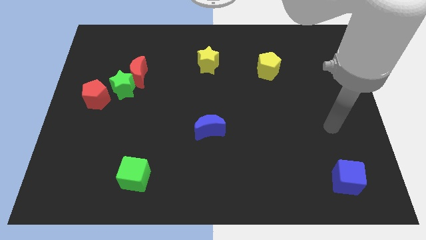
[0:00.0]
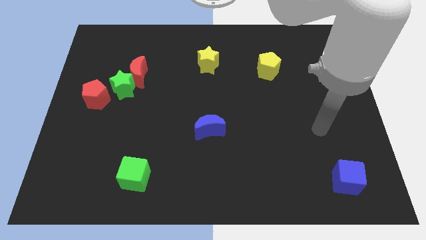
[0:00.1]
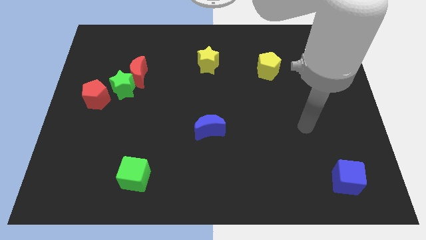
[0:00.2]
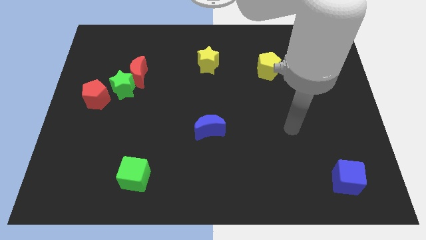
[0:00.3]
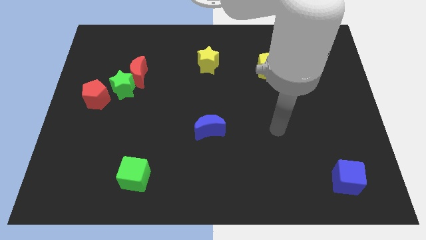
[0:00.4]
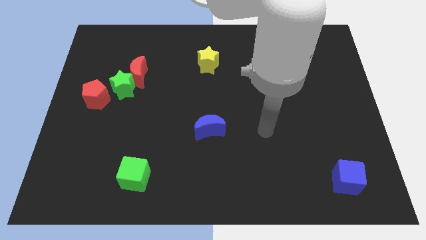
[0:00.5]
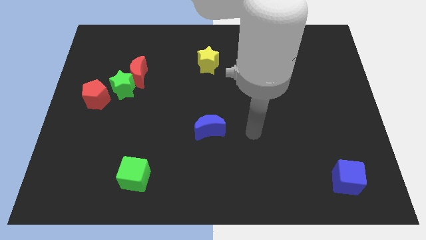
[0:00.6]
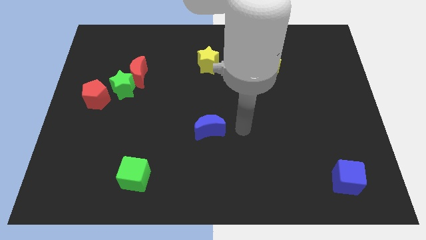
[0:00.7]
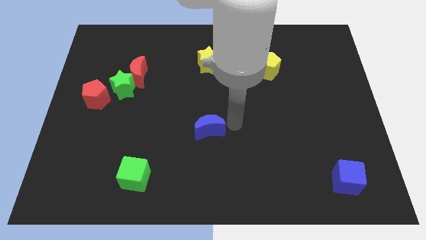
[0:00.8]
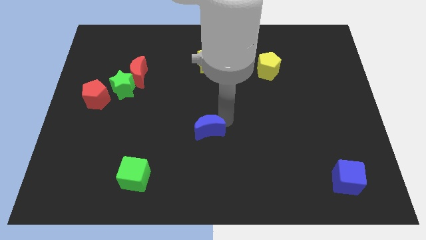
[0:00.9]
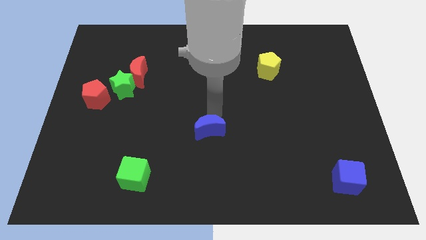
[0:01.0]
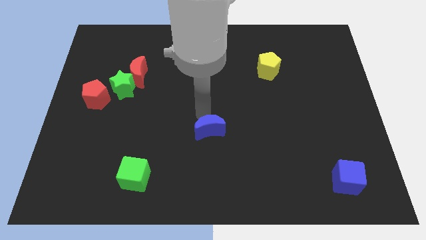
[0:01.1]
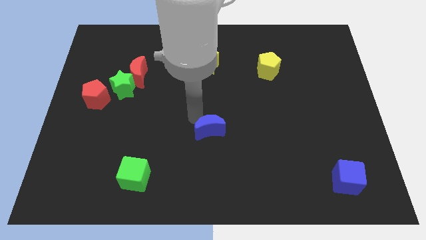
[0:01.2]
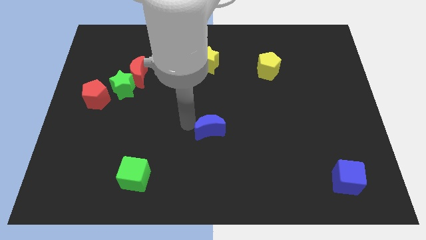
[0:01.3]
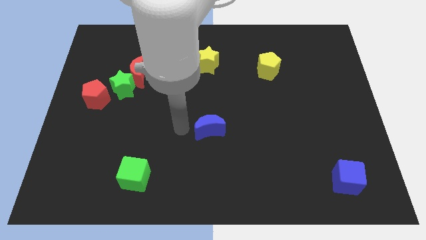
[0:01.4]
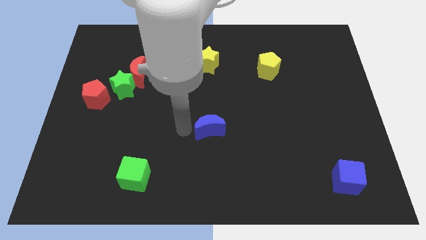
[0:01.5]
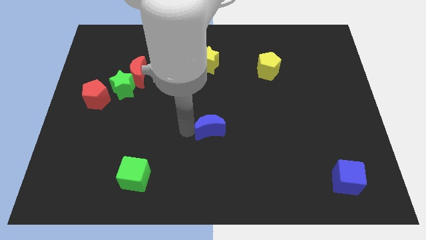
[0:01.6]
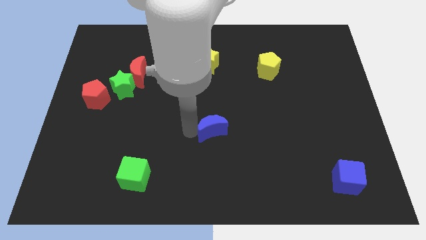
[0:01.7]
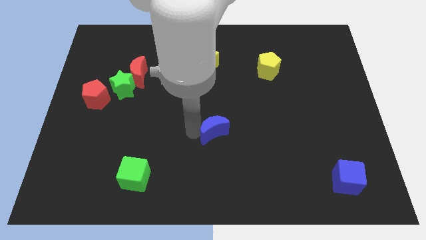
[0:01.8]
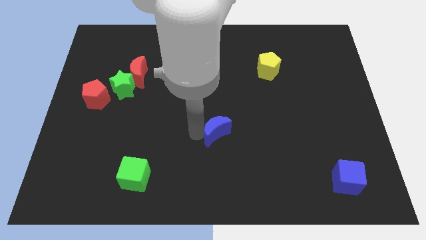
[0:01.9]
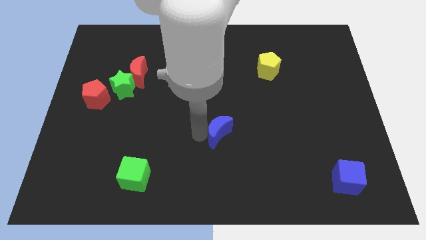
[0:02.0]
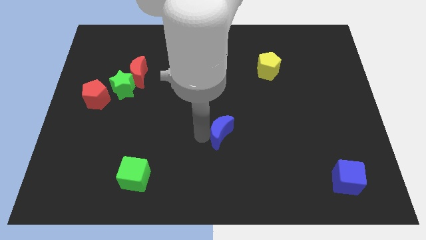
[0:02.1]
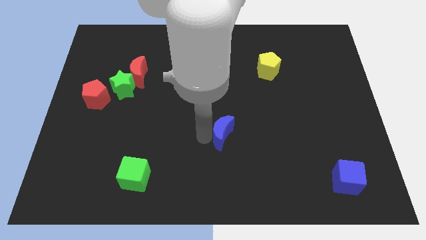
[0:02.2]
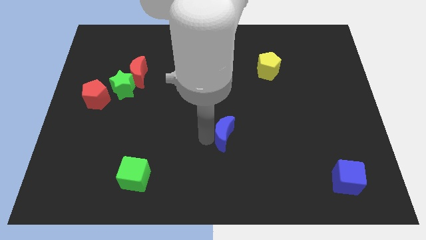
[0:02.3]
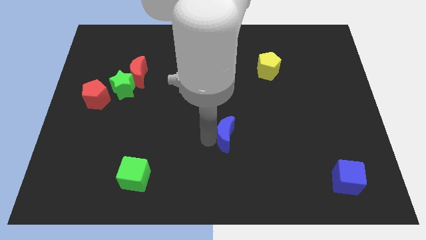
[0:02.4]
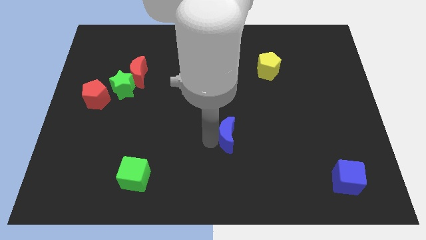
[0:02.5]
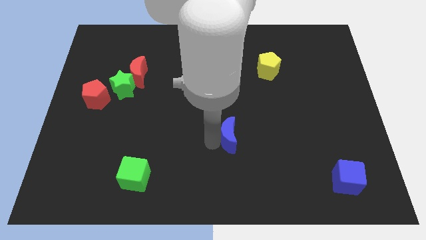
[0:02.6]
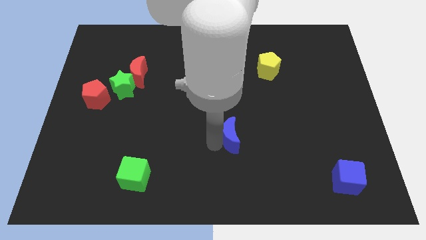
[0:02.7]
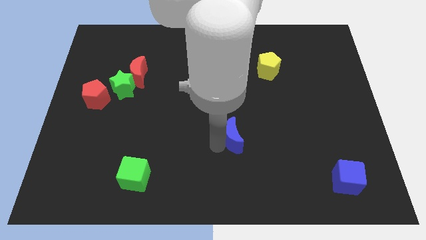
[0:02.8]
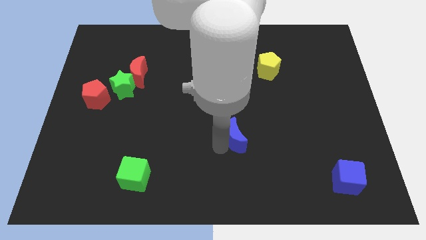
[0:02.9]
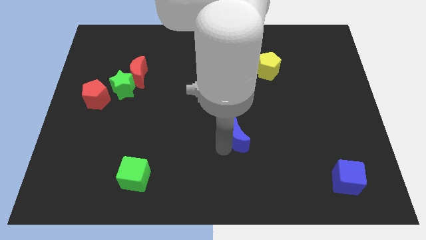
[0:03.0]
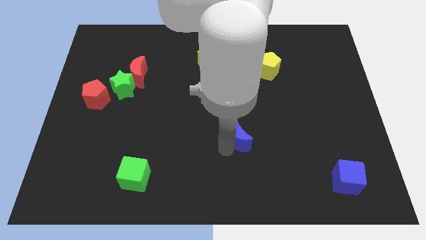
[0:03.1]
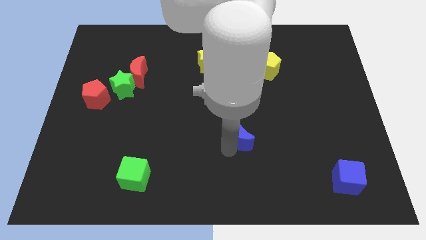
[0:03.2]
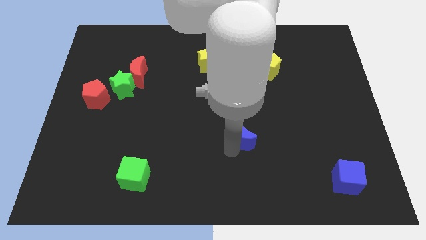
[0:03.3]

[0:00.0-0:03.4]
move the blue moon a little bit right

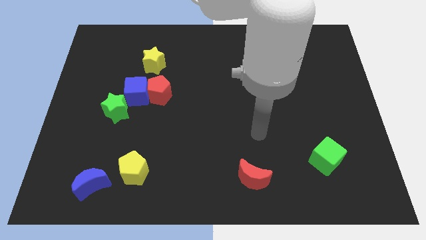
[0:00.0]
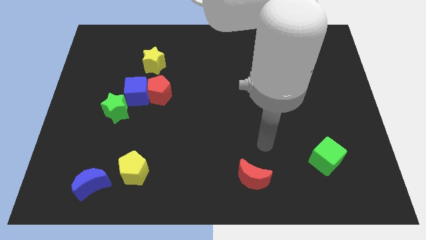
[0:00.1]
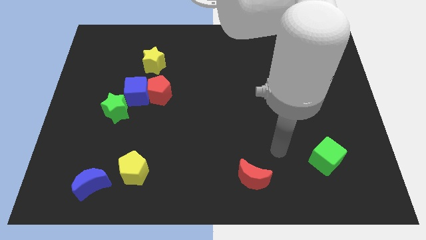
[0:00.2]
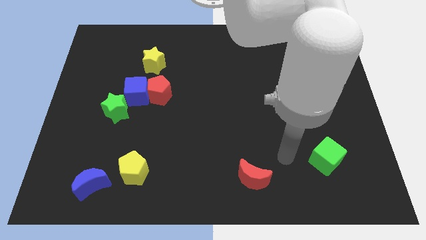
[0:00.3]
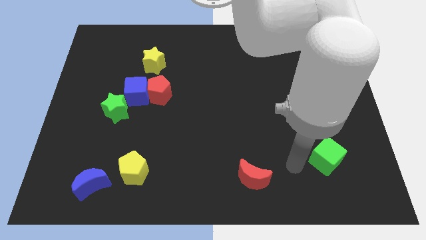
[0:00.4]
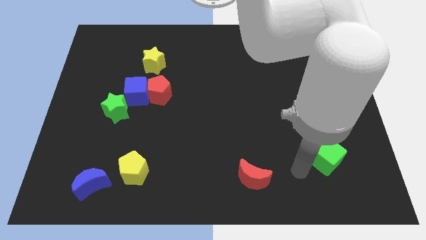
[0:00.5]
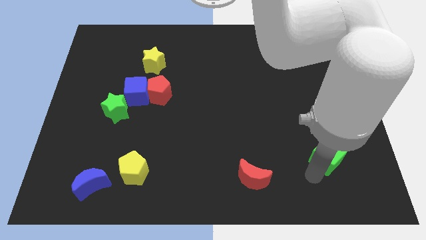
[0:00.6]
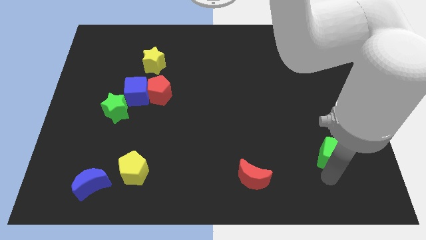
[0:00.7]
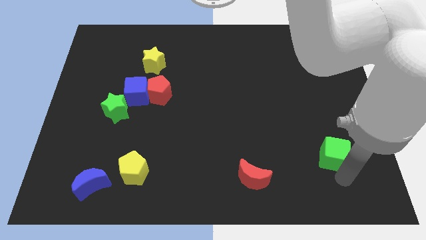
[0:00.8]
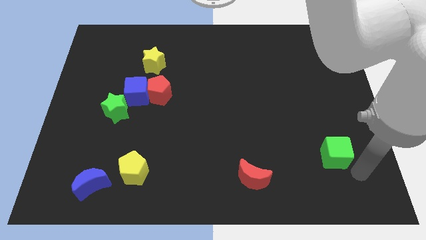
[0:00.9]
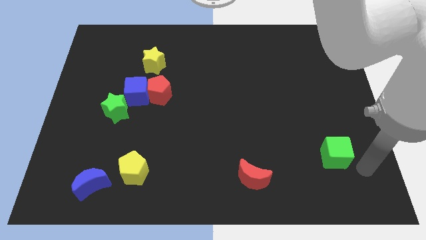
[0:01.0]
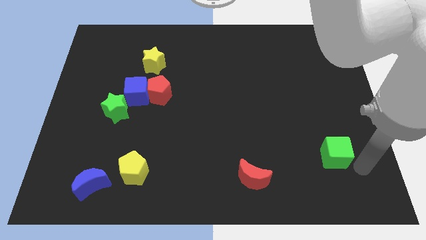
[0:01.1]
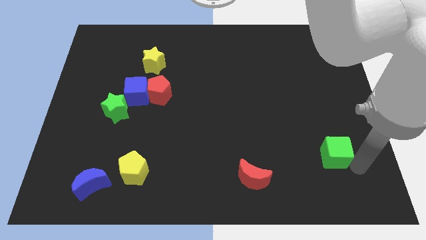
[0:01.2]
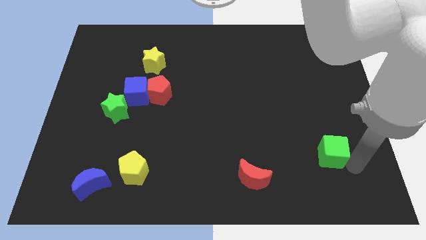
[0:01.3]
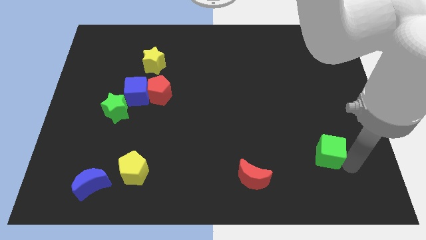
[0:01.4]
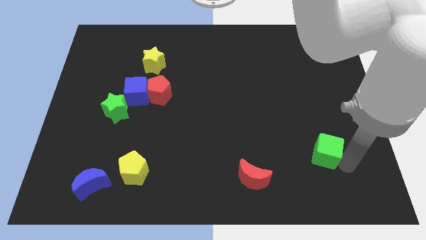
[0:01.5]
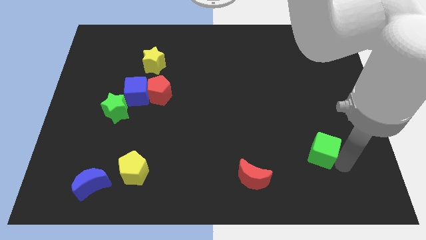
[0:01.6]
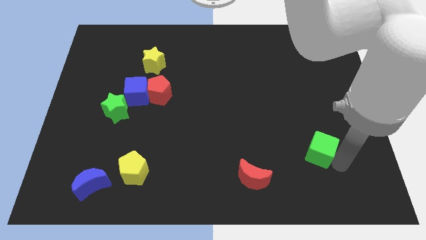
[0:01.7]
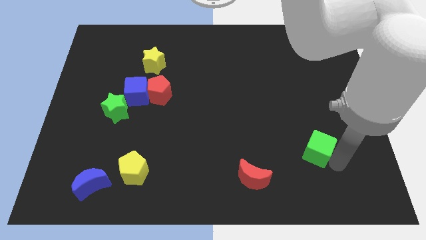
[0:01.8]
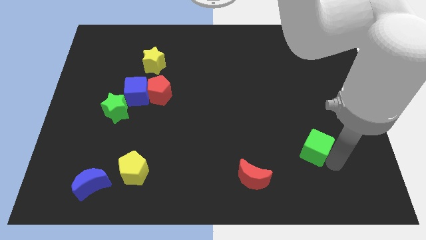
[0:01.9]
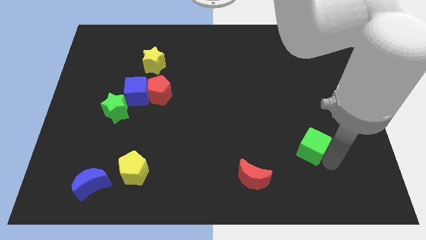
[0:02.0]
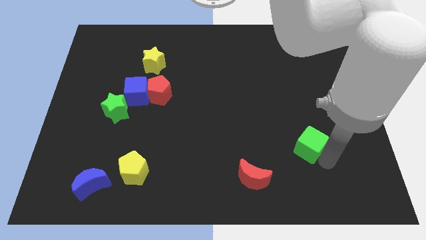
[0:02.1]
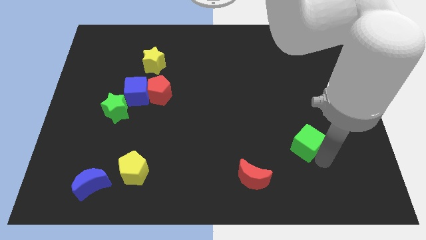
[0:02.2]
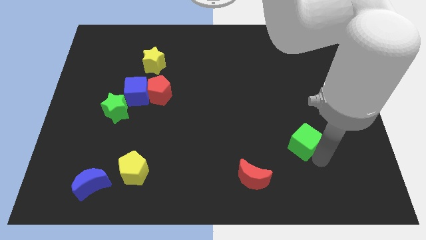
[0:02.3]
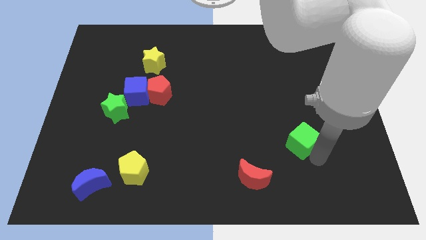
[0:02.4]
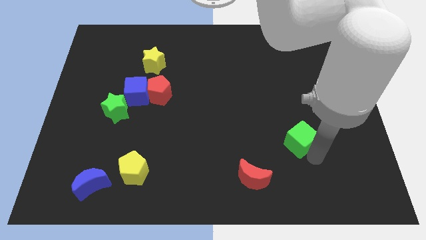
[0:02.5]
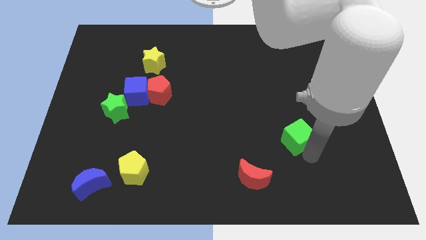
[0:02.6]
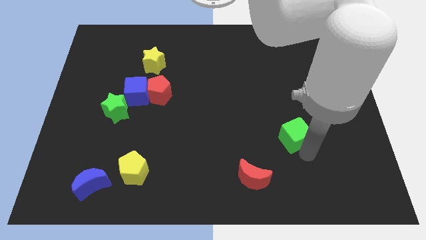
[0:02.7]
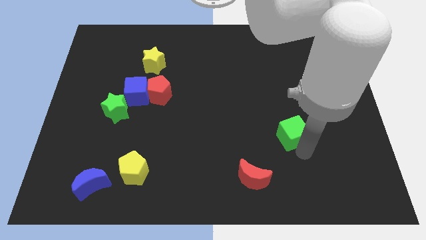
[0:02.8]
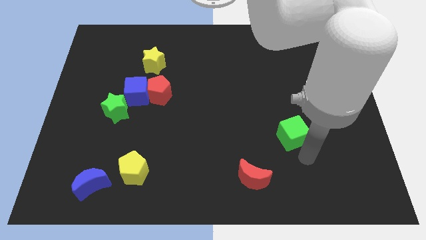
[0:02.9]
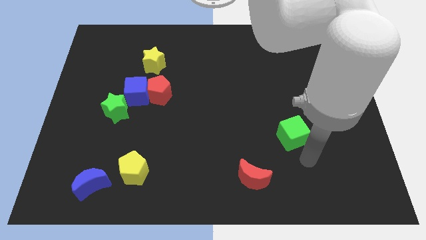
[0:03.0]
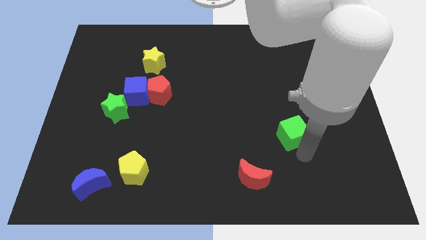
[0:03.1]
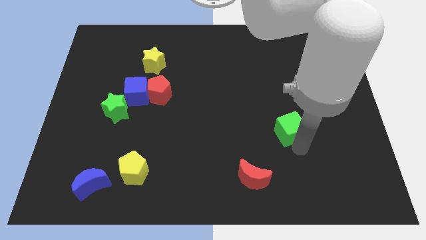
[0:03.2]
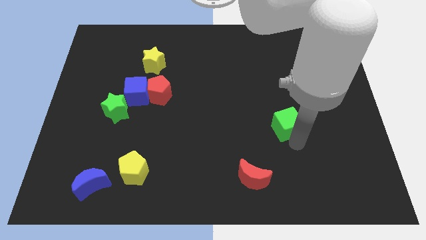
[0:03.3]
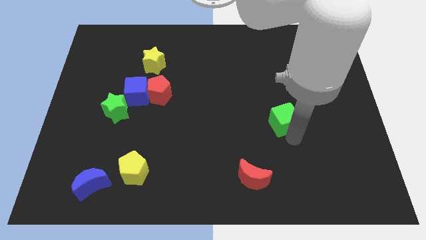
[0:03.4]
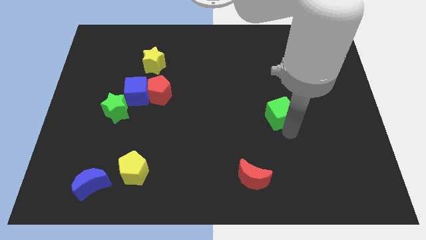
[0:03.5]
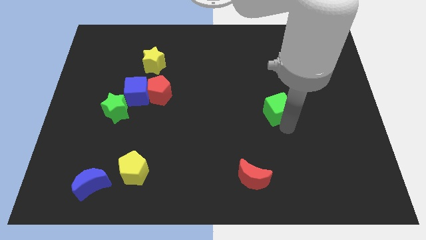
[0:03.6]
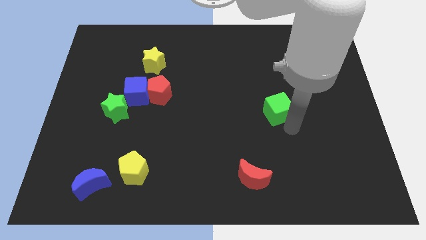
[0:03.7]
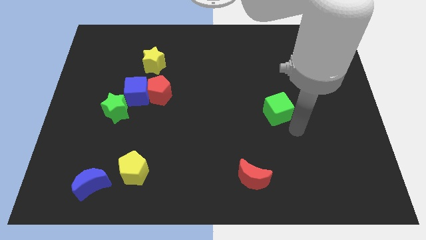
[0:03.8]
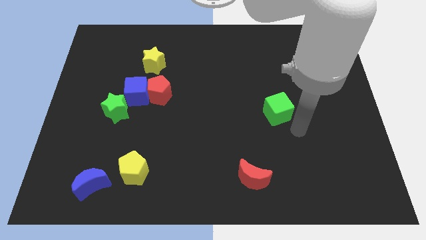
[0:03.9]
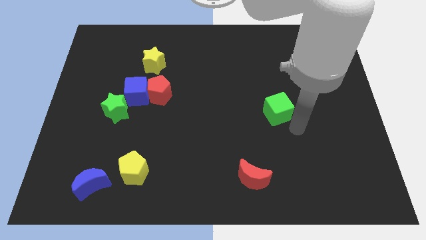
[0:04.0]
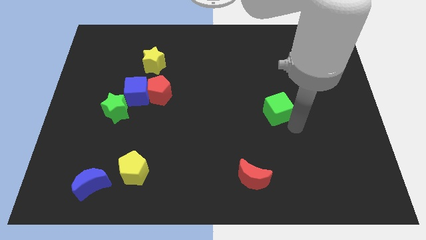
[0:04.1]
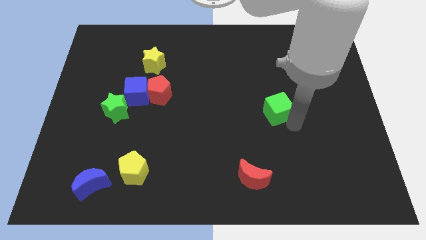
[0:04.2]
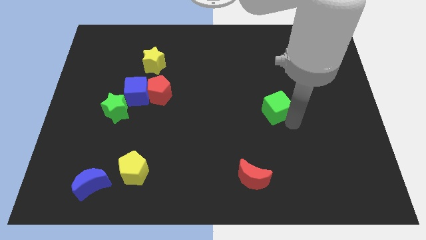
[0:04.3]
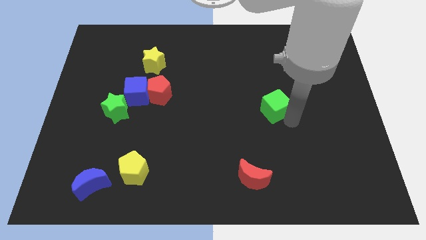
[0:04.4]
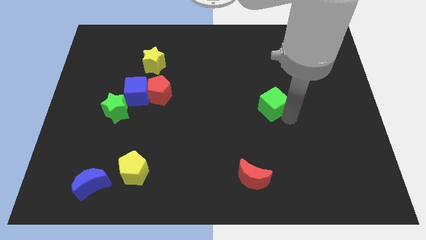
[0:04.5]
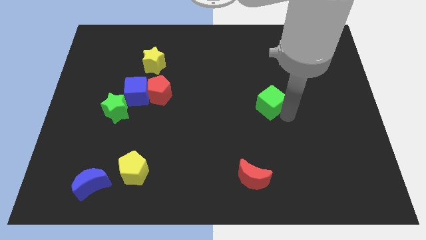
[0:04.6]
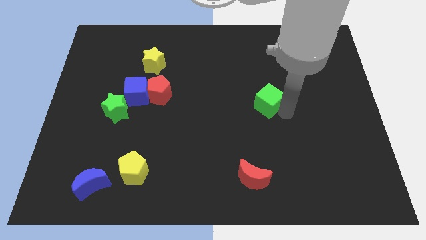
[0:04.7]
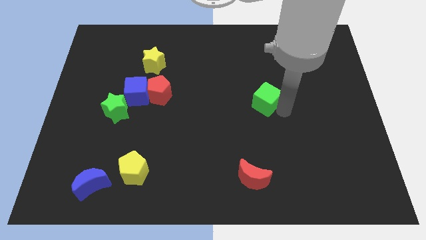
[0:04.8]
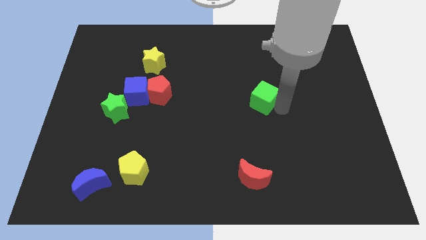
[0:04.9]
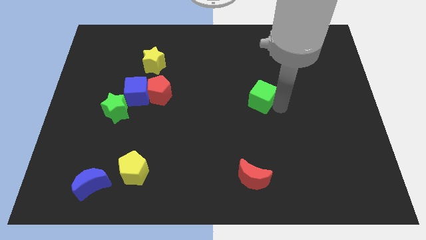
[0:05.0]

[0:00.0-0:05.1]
push the green cube upwards and to the left
